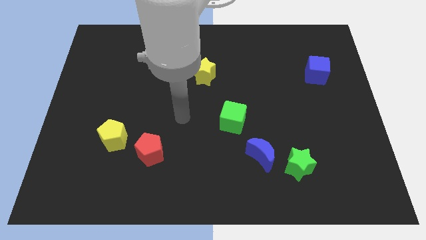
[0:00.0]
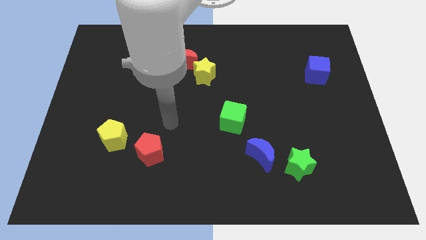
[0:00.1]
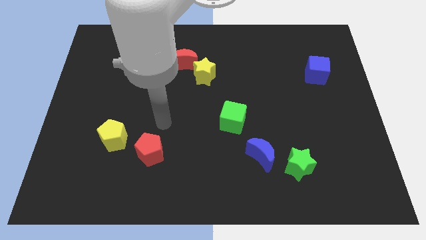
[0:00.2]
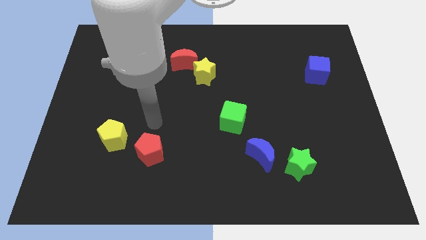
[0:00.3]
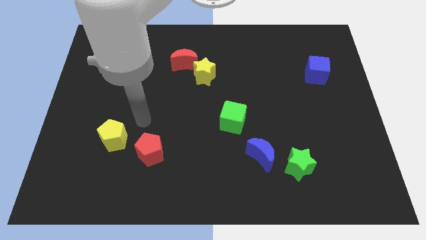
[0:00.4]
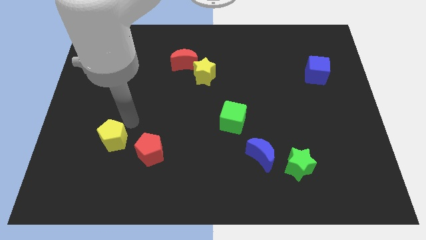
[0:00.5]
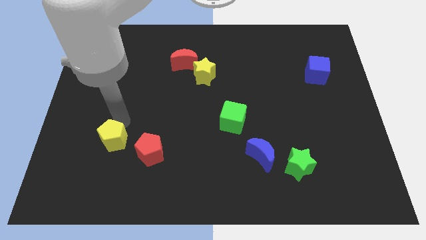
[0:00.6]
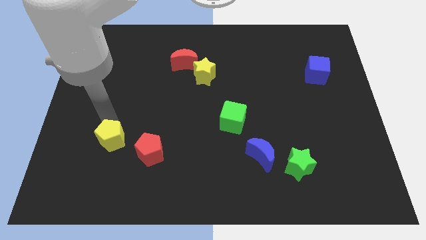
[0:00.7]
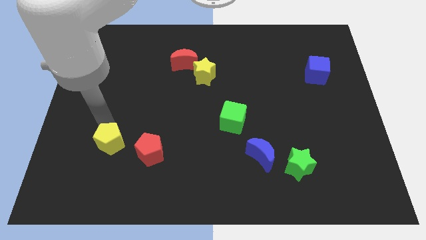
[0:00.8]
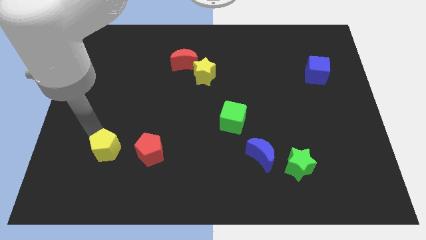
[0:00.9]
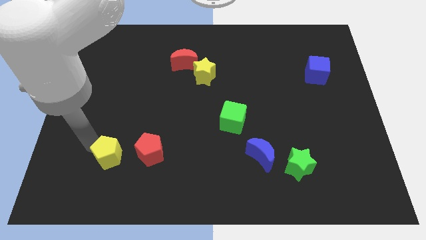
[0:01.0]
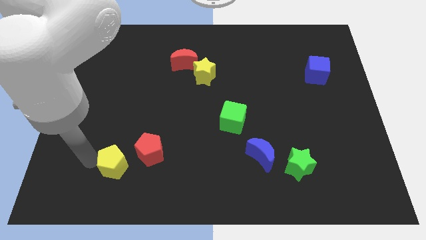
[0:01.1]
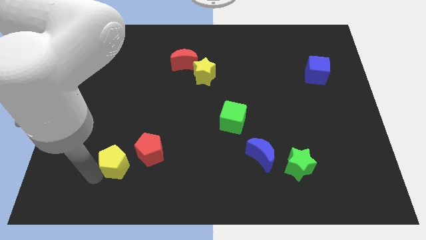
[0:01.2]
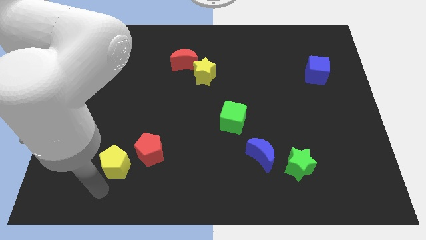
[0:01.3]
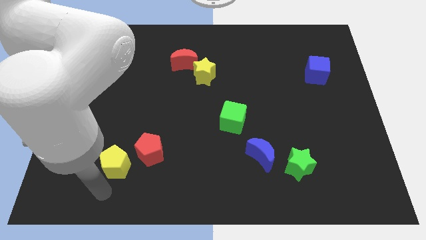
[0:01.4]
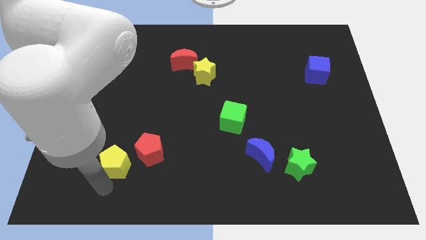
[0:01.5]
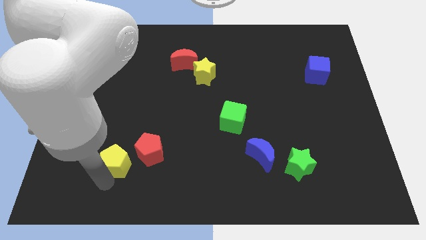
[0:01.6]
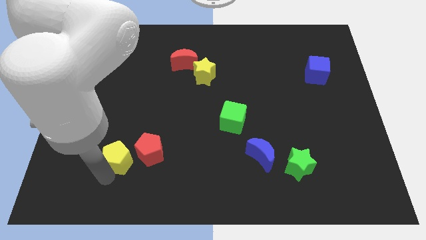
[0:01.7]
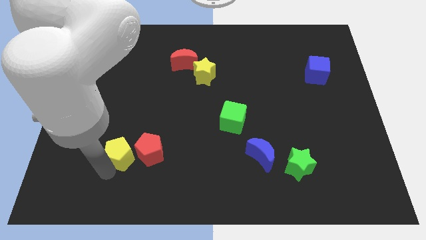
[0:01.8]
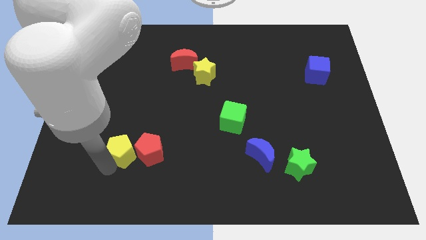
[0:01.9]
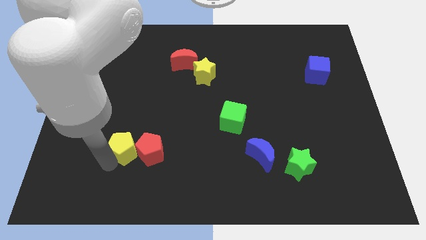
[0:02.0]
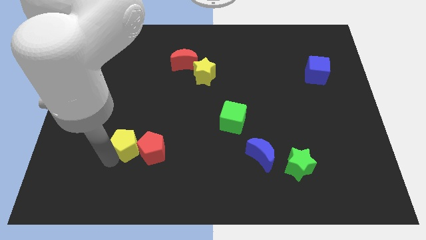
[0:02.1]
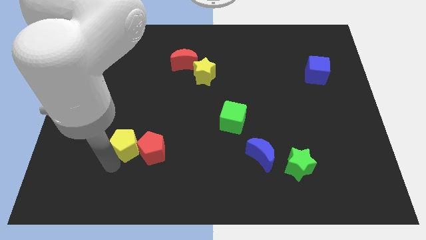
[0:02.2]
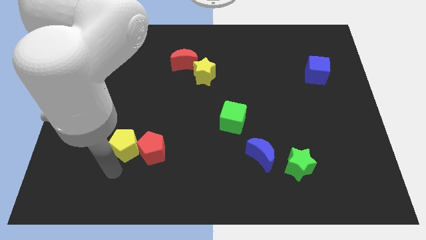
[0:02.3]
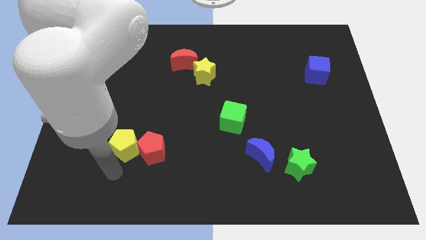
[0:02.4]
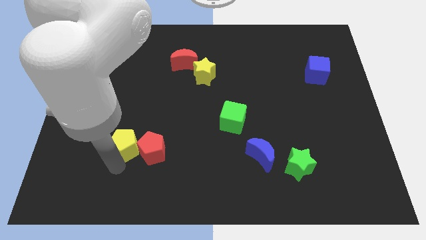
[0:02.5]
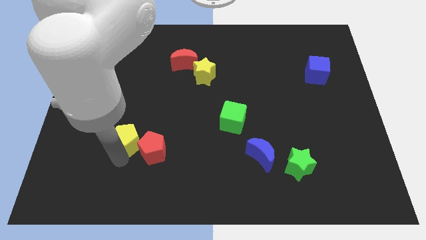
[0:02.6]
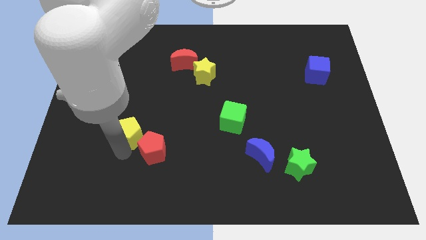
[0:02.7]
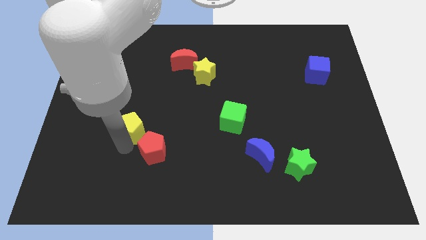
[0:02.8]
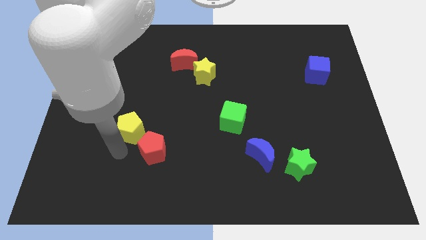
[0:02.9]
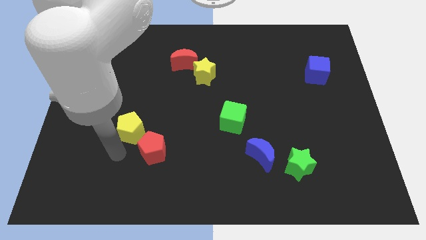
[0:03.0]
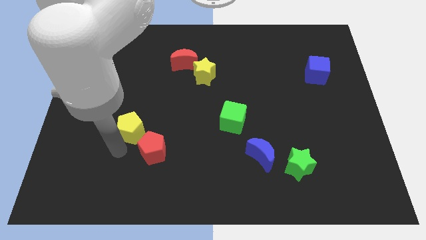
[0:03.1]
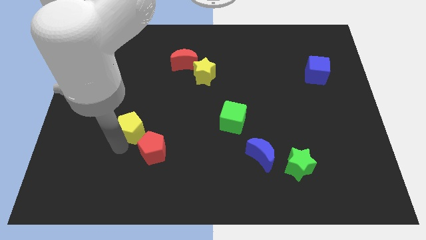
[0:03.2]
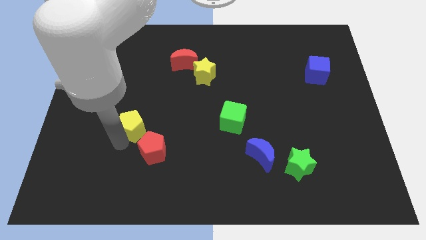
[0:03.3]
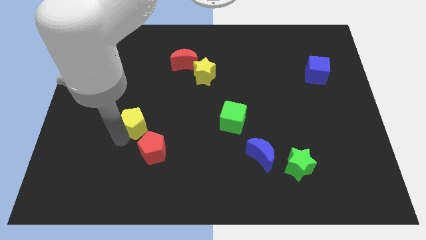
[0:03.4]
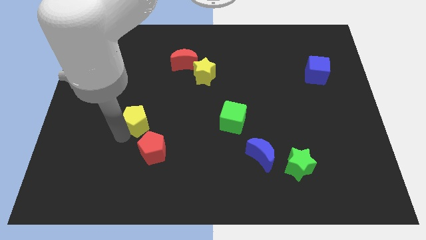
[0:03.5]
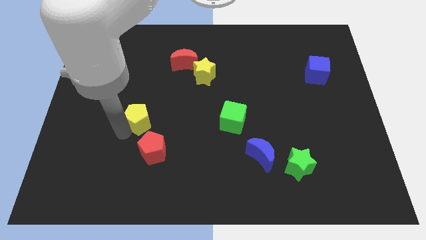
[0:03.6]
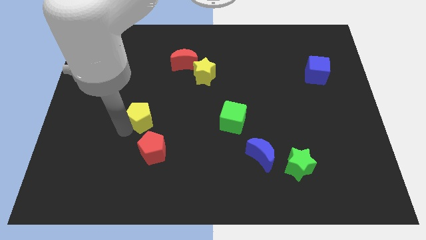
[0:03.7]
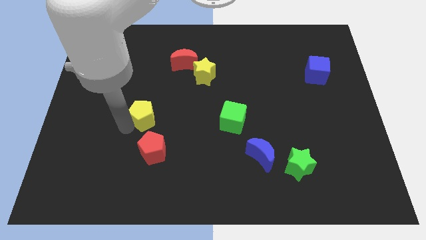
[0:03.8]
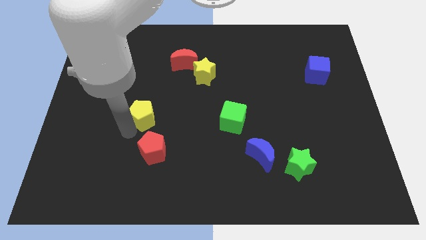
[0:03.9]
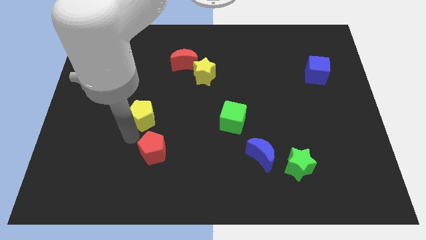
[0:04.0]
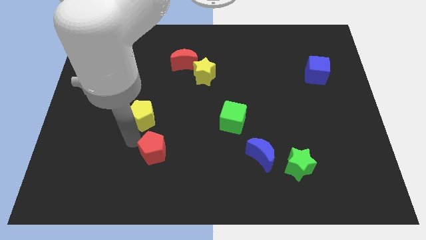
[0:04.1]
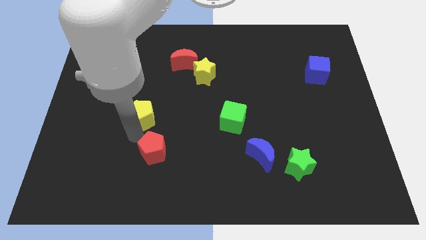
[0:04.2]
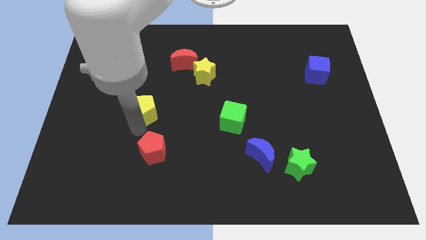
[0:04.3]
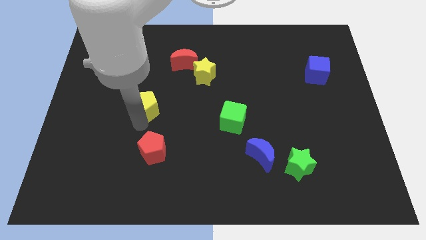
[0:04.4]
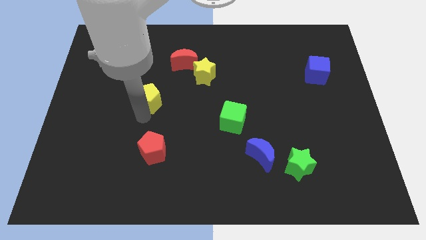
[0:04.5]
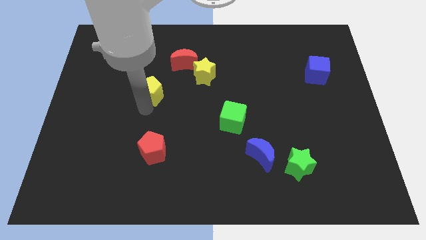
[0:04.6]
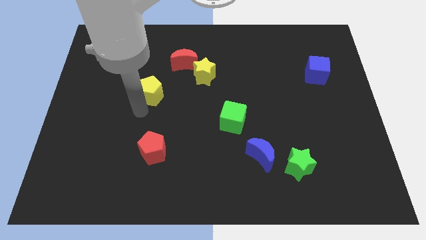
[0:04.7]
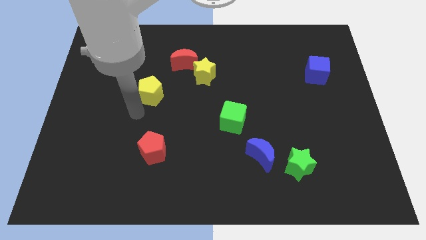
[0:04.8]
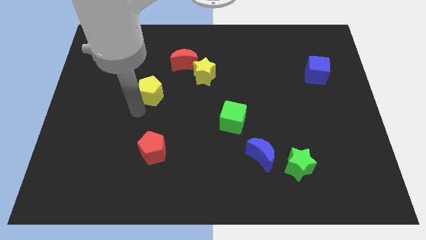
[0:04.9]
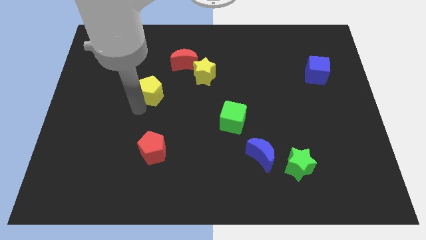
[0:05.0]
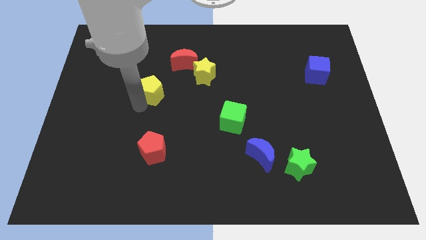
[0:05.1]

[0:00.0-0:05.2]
put the yellow pentagon to the bottom left side of the red moon

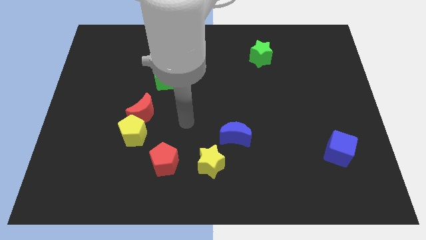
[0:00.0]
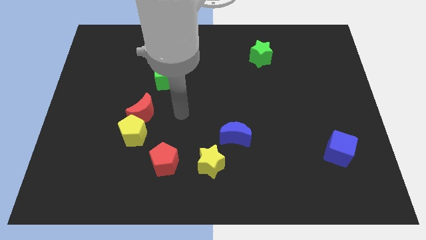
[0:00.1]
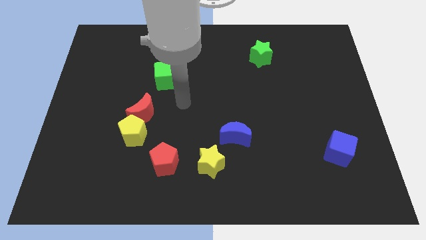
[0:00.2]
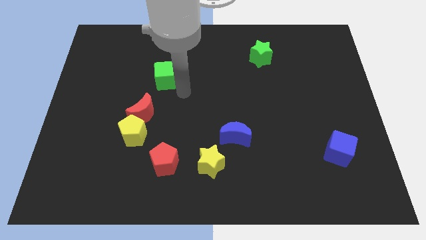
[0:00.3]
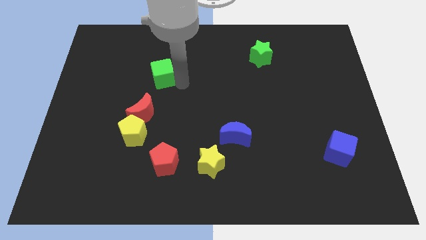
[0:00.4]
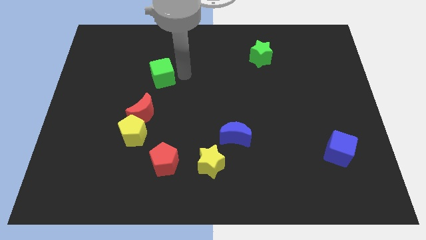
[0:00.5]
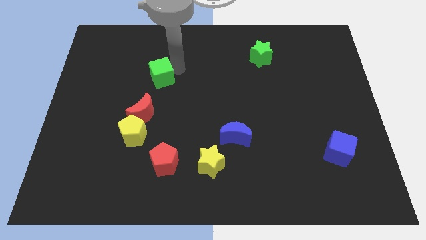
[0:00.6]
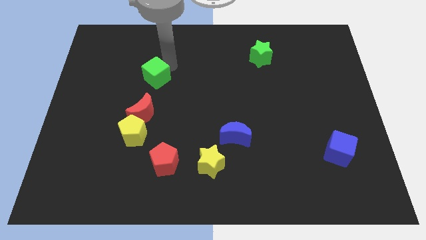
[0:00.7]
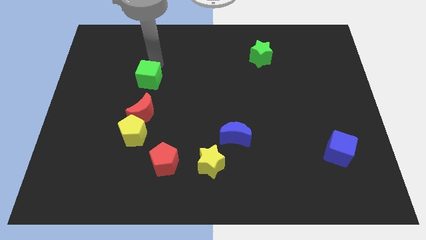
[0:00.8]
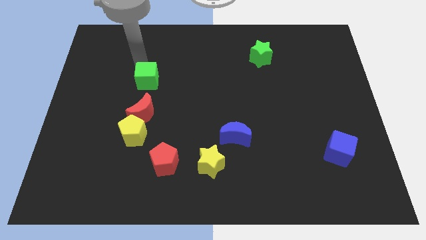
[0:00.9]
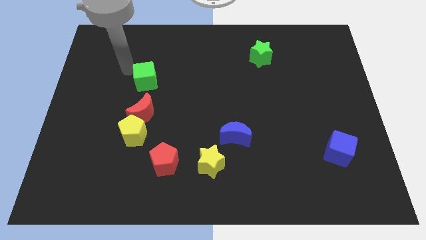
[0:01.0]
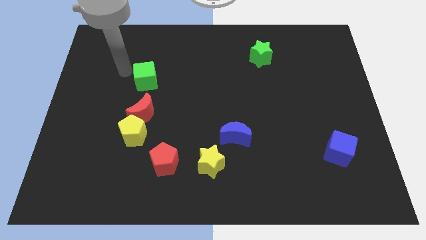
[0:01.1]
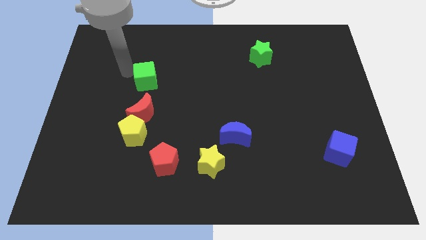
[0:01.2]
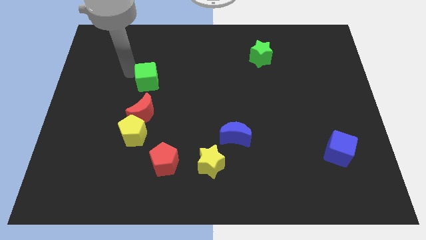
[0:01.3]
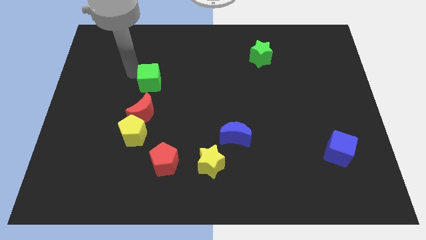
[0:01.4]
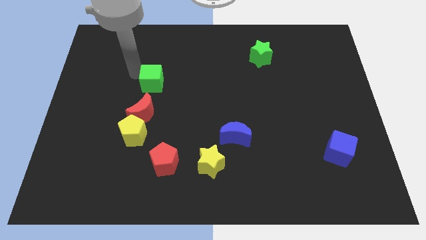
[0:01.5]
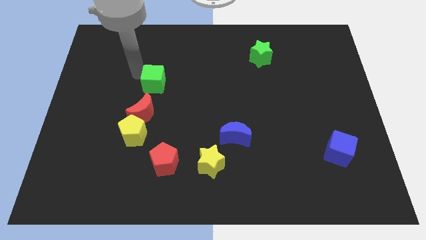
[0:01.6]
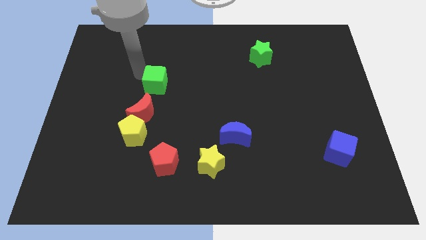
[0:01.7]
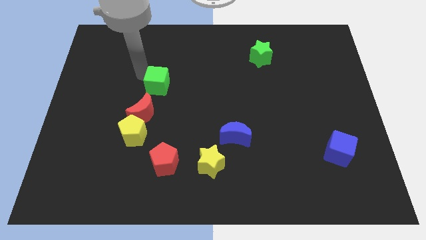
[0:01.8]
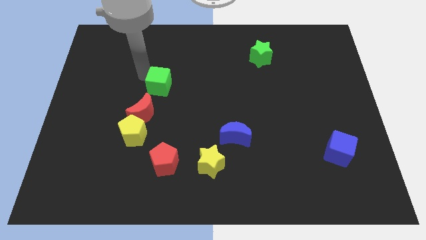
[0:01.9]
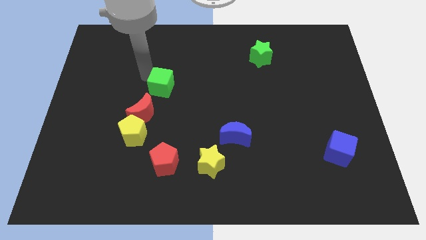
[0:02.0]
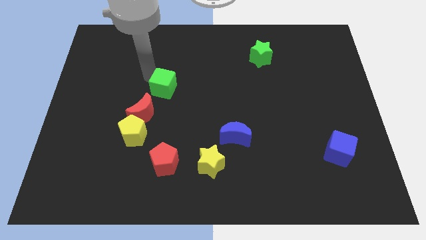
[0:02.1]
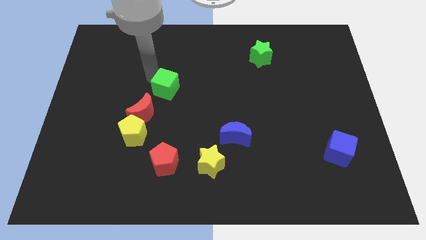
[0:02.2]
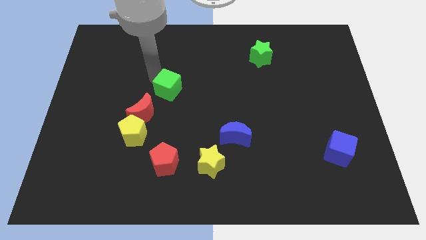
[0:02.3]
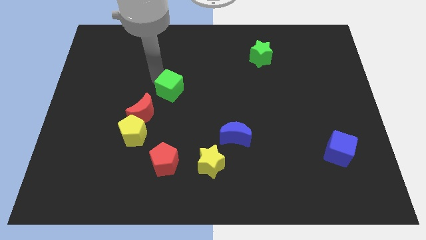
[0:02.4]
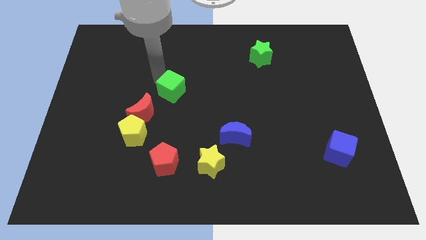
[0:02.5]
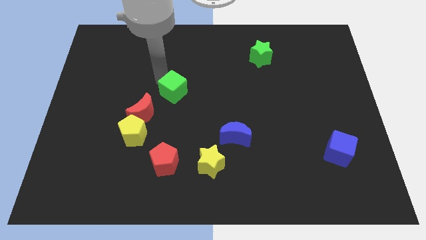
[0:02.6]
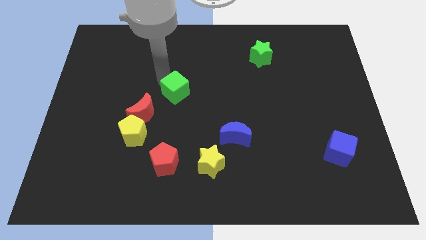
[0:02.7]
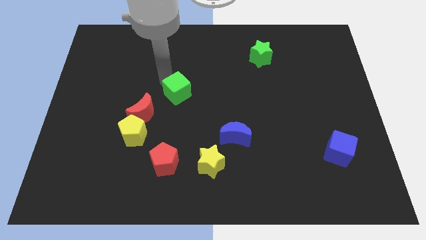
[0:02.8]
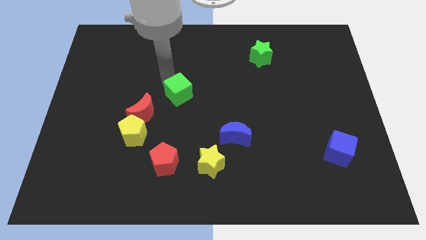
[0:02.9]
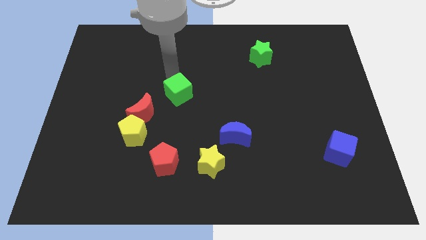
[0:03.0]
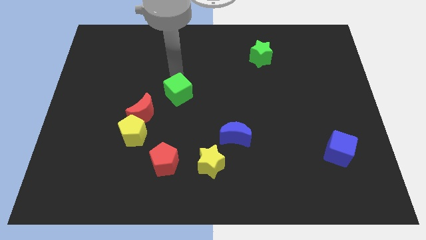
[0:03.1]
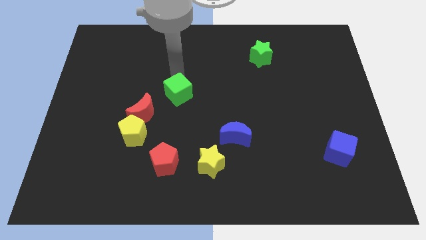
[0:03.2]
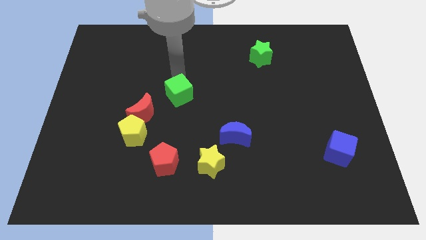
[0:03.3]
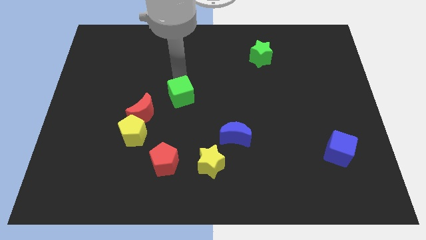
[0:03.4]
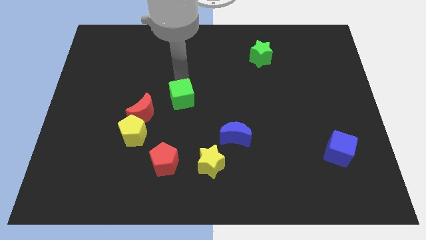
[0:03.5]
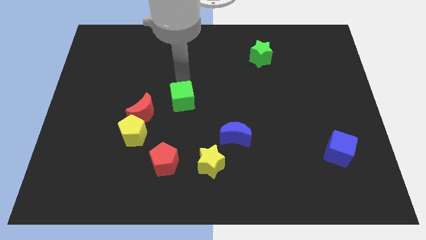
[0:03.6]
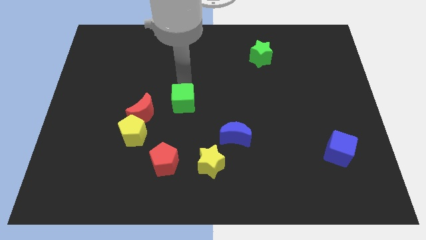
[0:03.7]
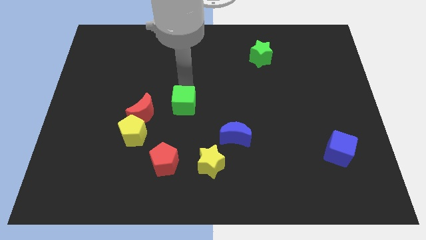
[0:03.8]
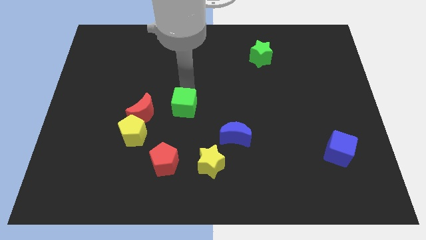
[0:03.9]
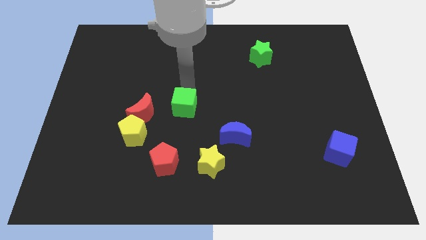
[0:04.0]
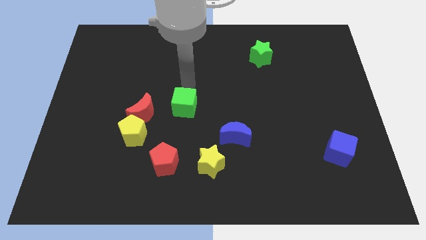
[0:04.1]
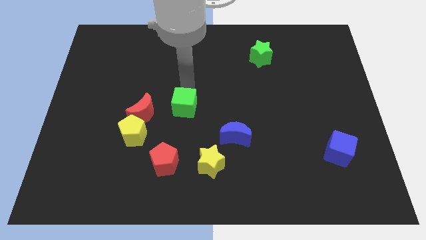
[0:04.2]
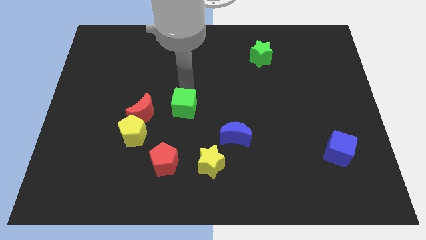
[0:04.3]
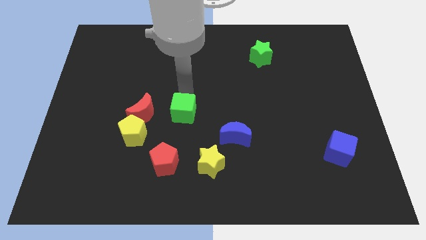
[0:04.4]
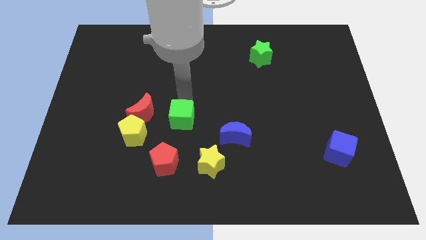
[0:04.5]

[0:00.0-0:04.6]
move the green cube to the right of the yellow pentagon
